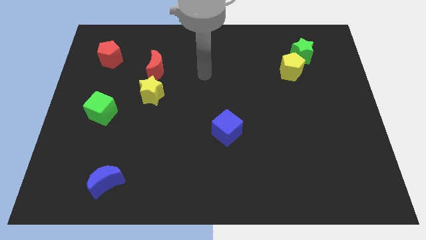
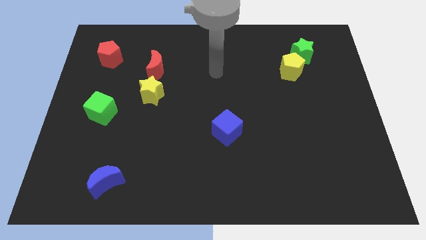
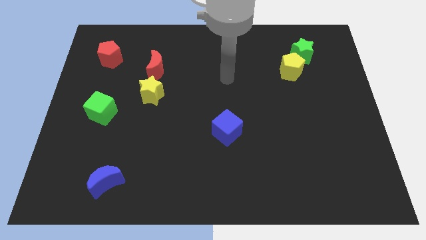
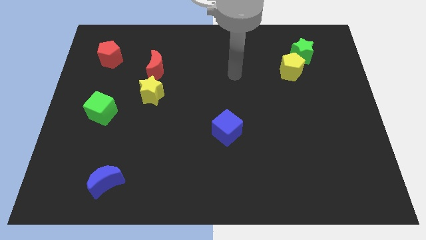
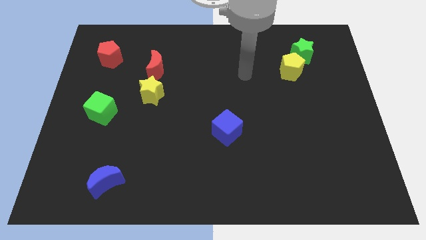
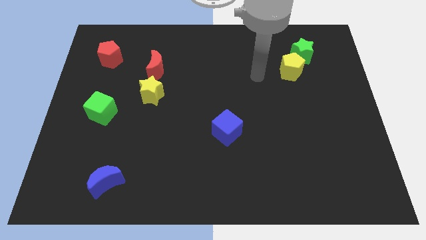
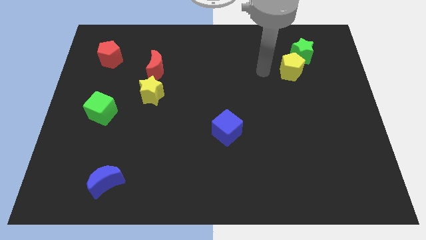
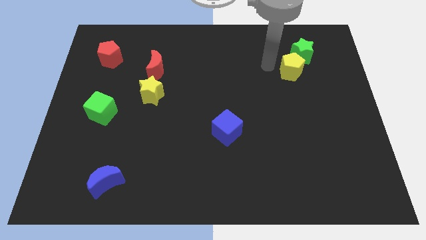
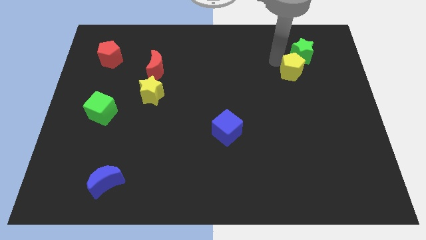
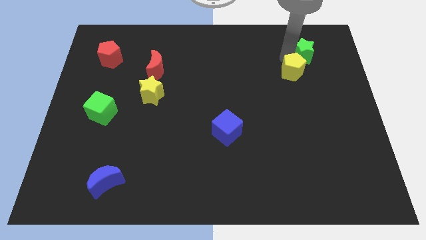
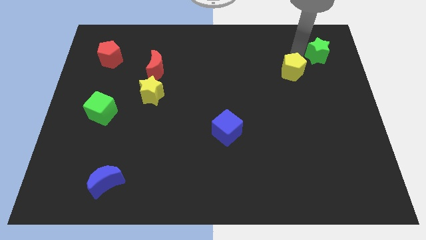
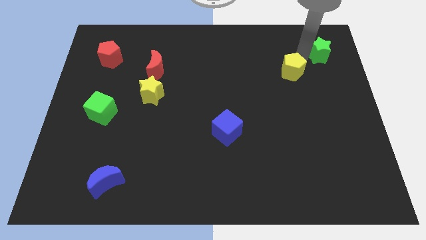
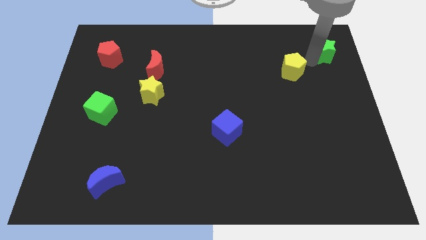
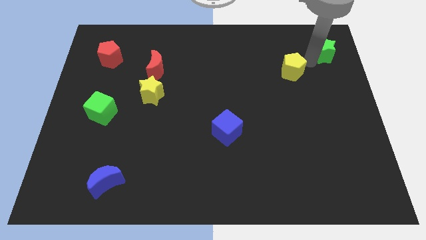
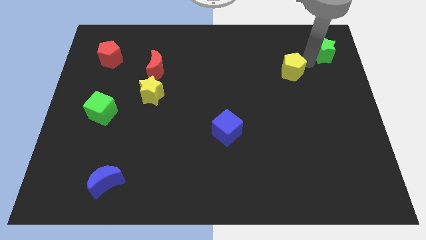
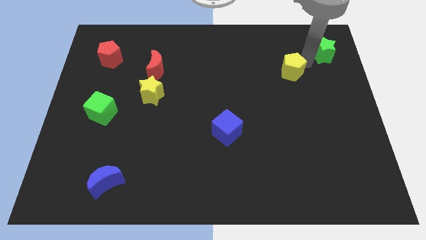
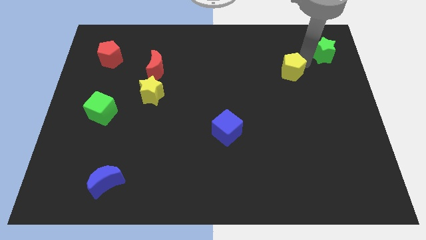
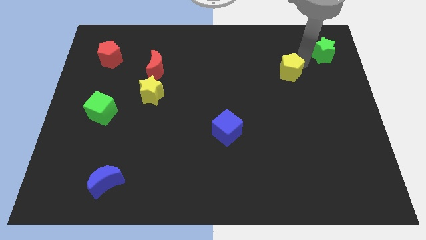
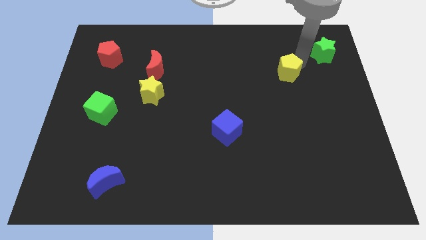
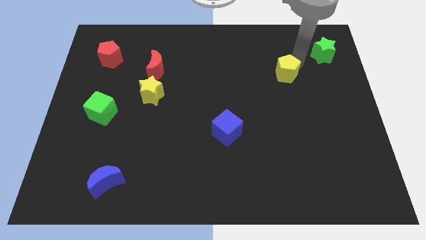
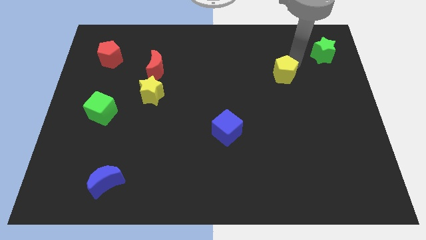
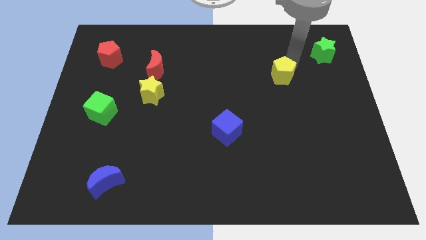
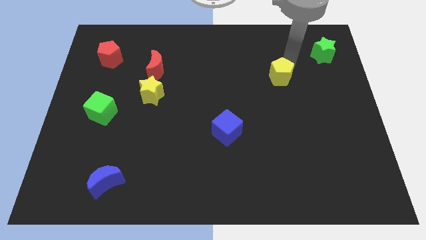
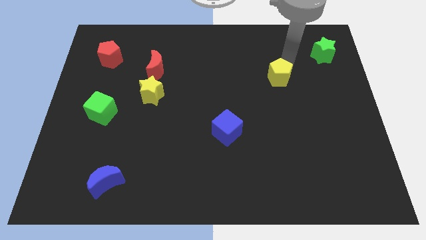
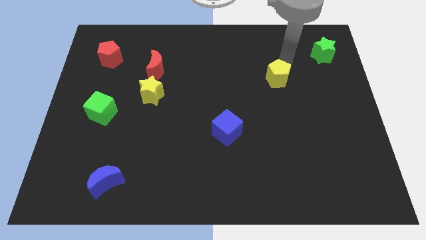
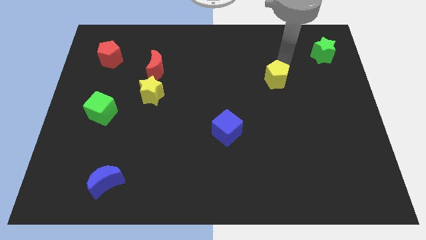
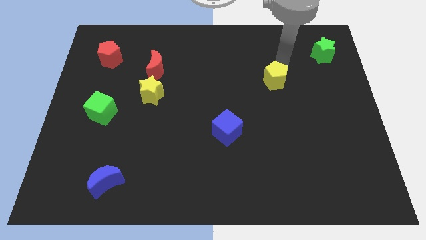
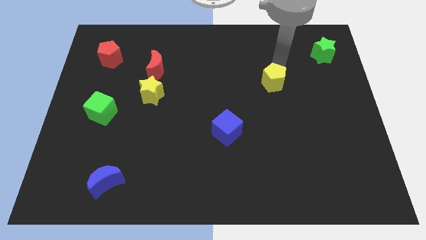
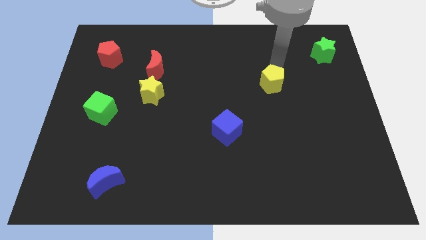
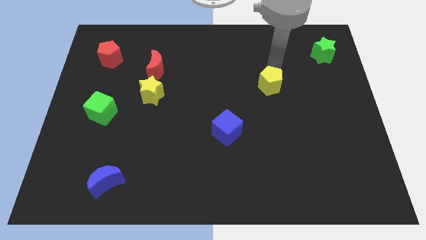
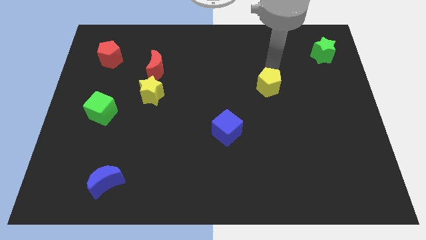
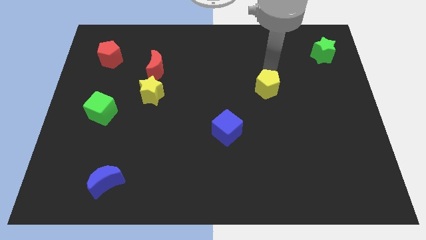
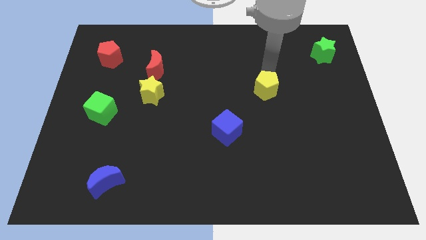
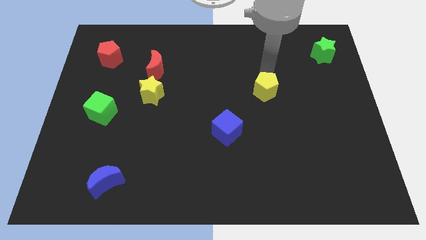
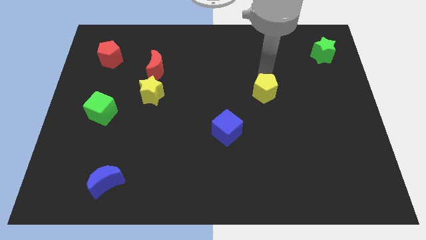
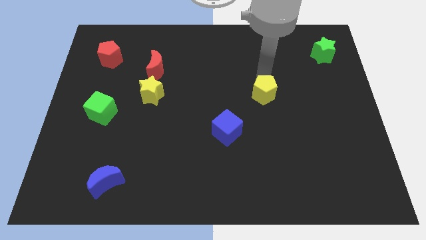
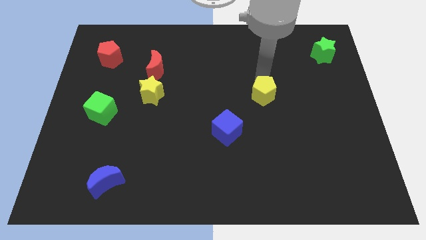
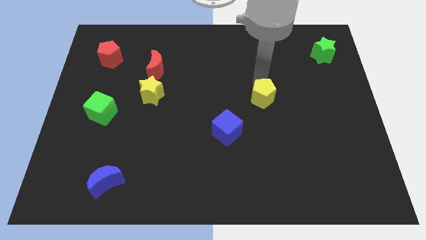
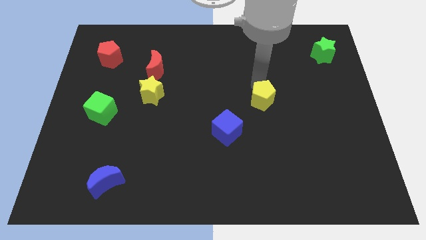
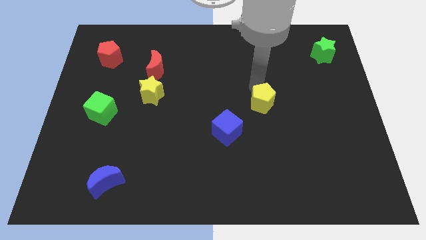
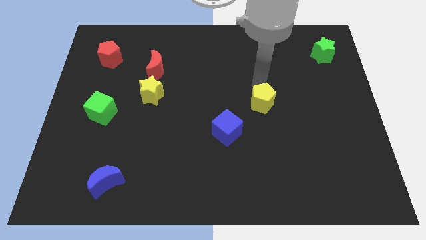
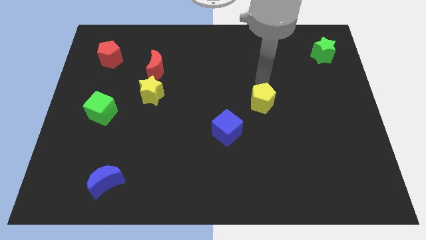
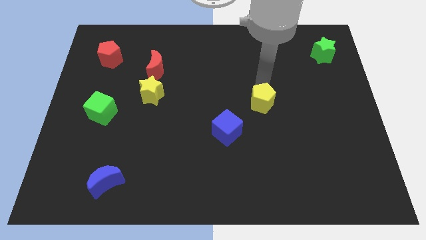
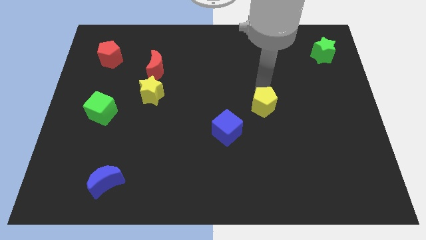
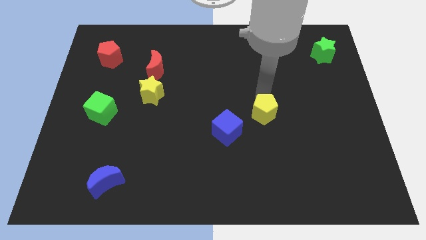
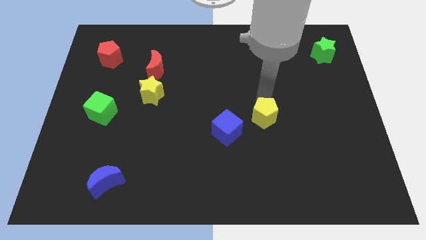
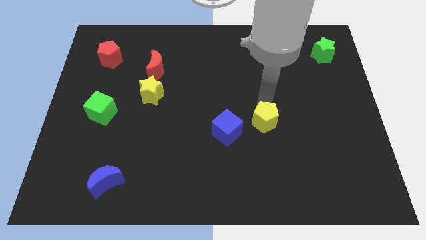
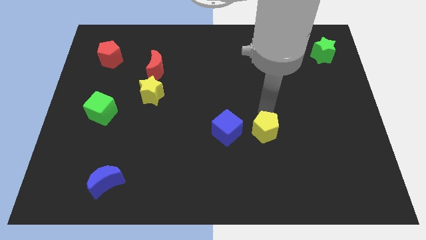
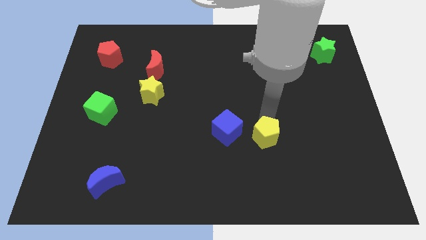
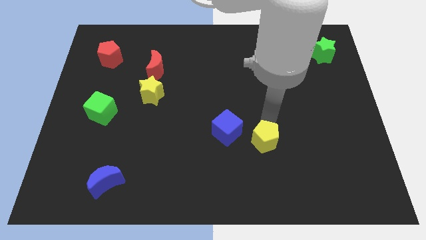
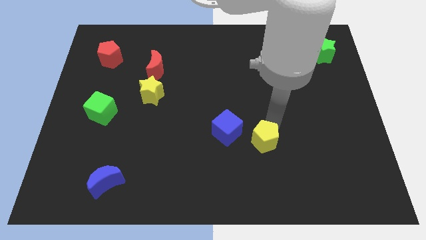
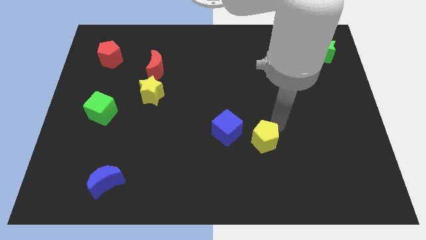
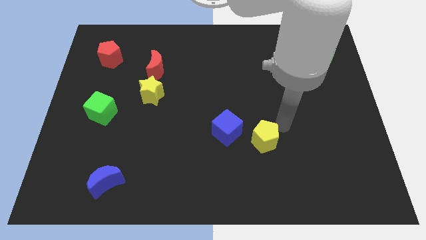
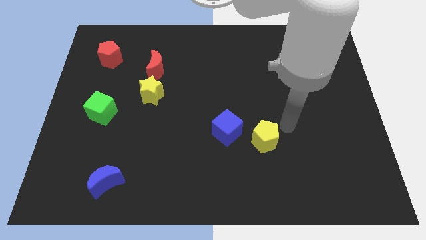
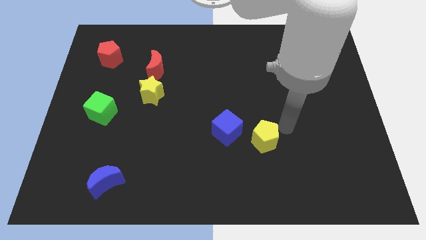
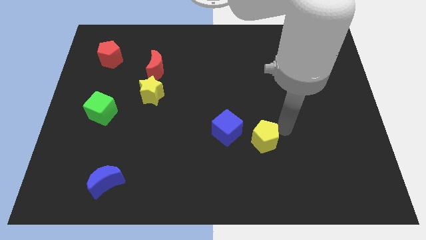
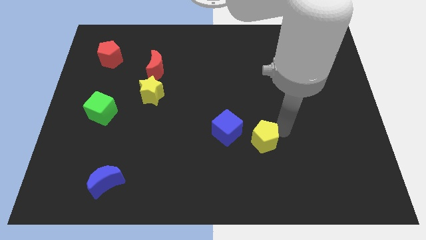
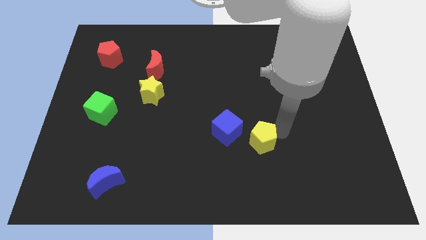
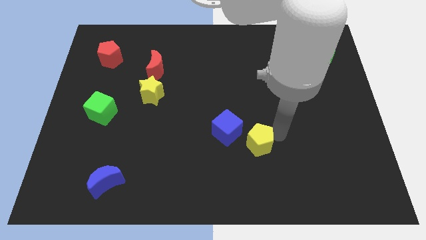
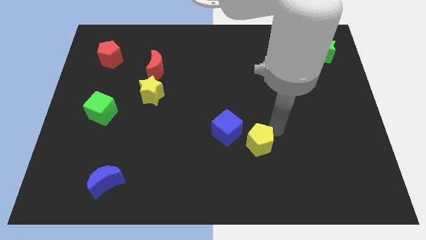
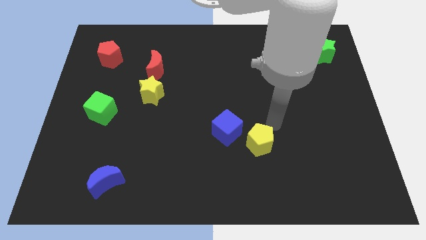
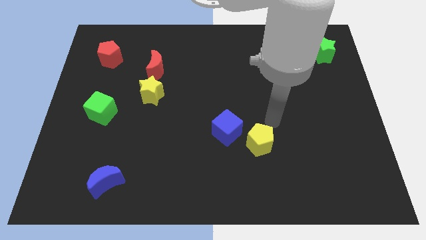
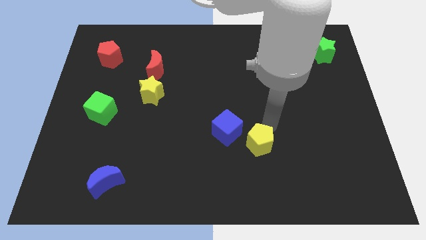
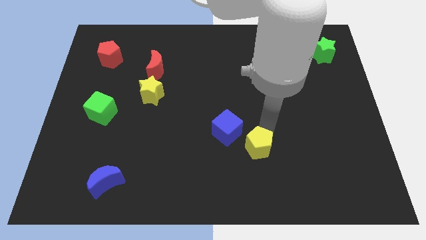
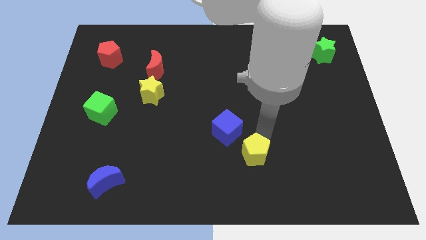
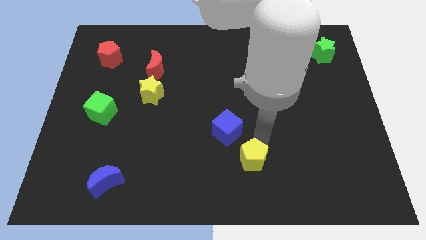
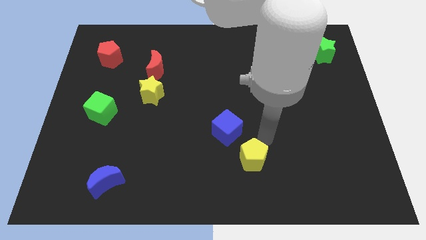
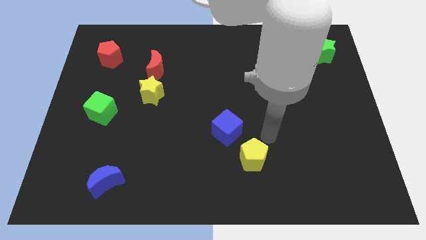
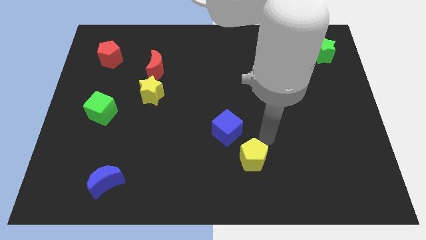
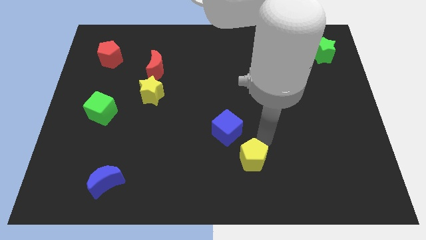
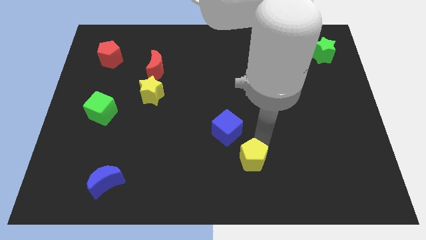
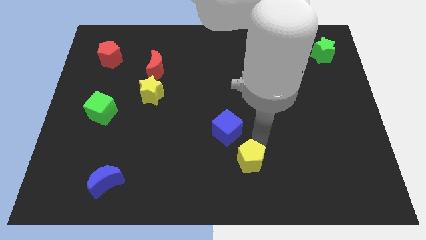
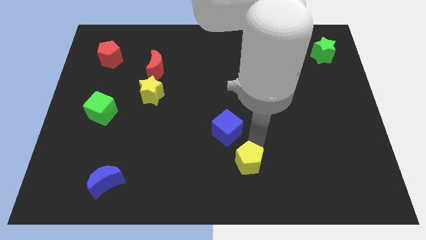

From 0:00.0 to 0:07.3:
slide the yellow pentagon to the bottom
